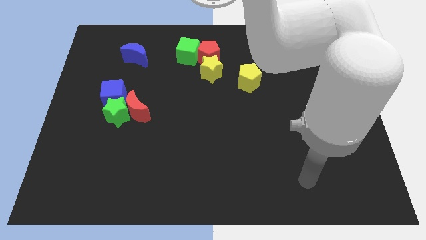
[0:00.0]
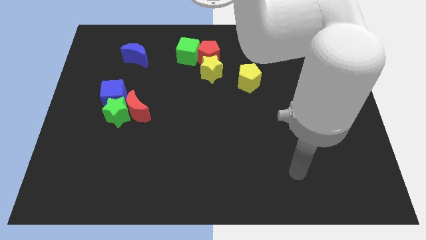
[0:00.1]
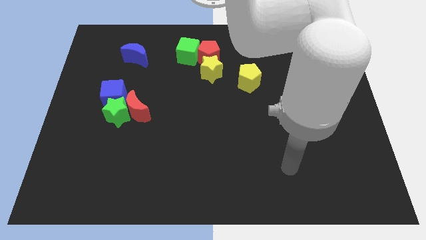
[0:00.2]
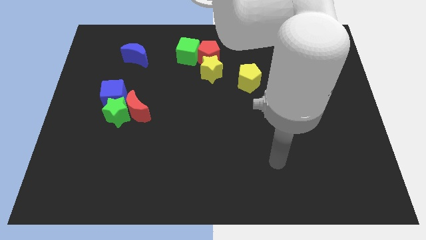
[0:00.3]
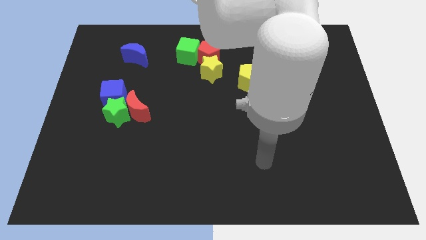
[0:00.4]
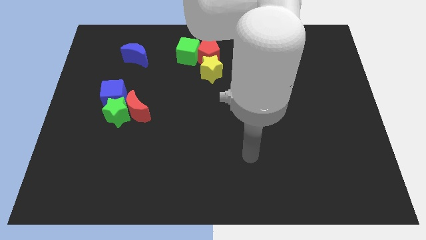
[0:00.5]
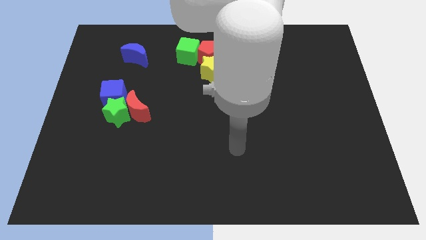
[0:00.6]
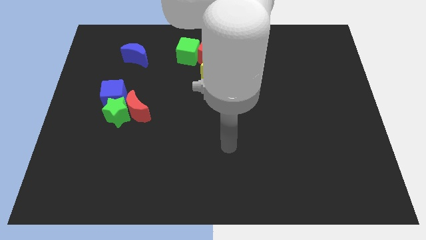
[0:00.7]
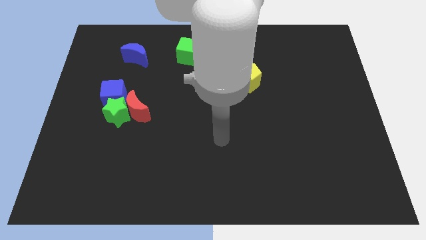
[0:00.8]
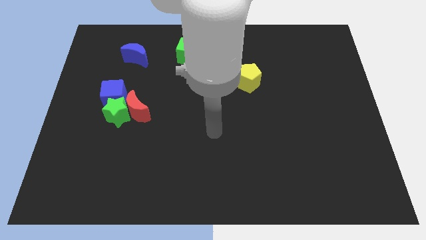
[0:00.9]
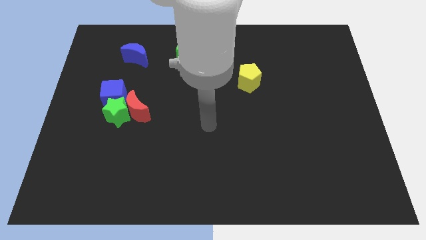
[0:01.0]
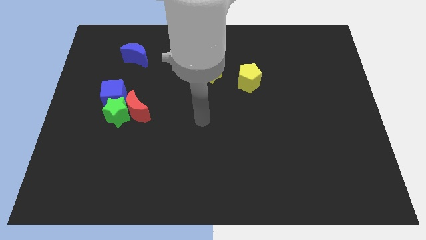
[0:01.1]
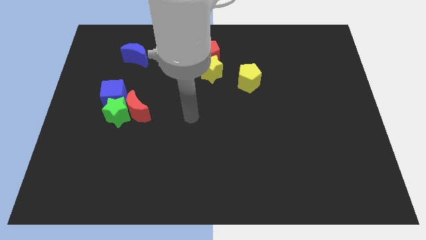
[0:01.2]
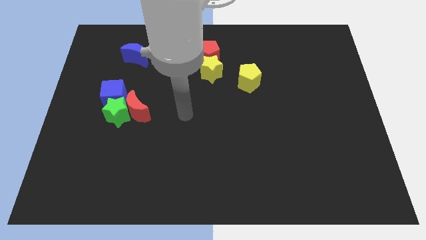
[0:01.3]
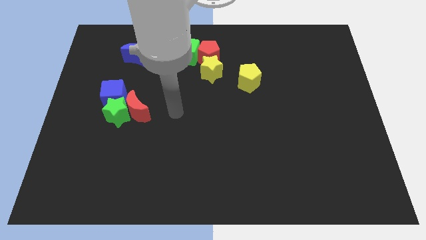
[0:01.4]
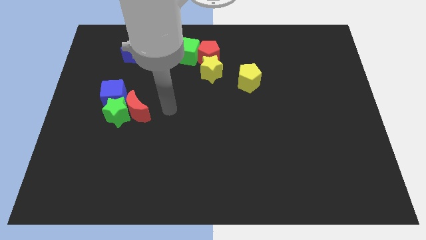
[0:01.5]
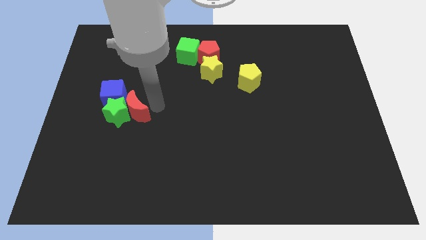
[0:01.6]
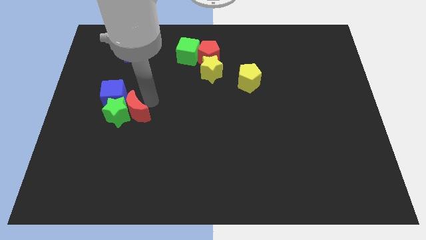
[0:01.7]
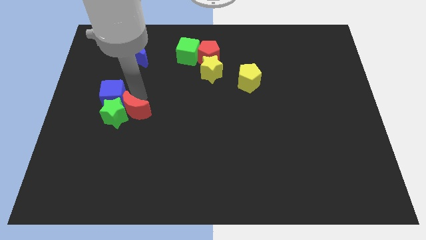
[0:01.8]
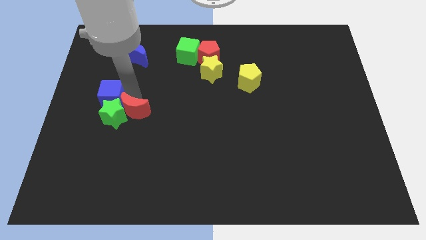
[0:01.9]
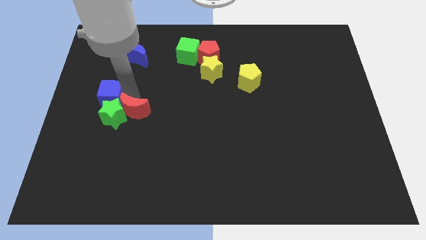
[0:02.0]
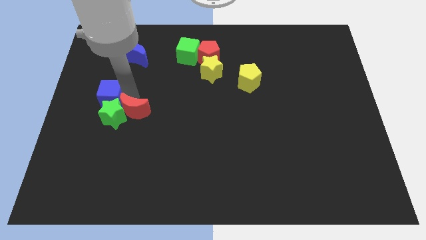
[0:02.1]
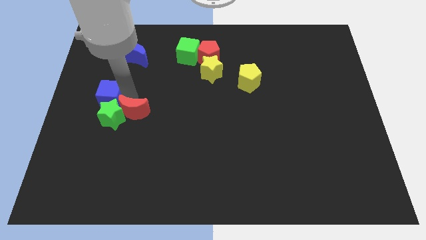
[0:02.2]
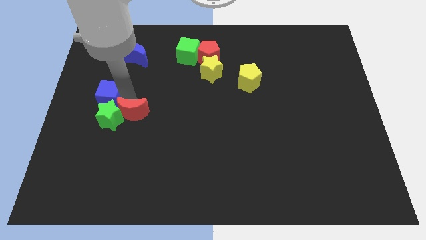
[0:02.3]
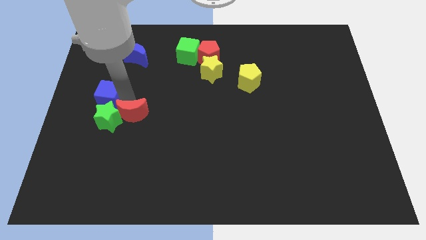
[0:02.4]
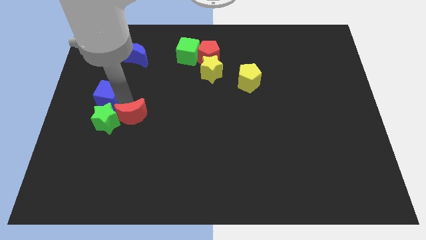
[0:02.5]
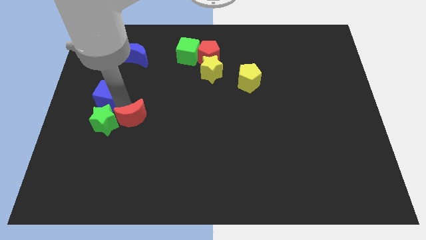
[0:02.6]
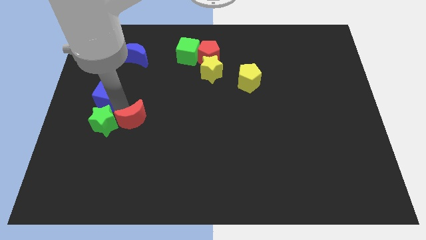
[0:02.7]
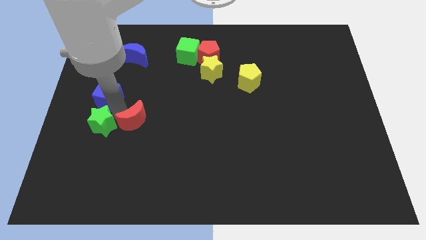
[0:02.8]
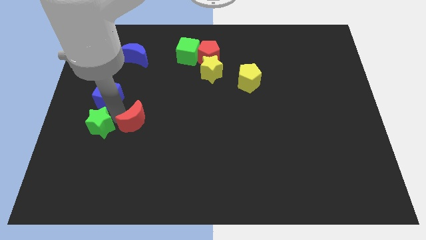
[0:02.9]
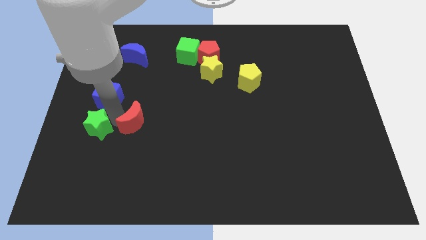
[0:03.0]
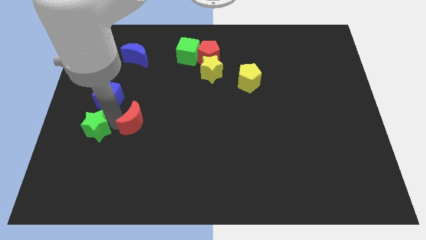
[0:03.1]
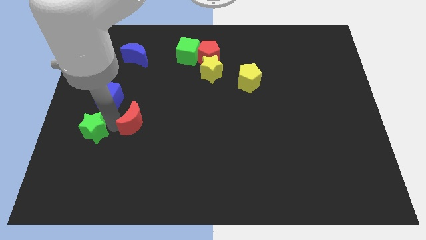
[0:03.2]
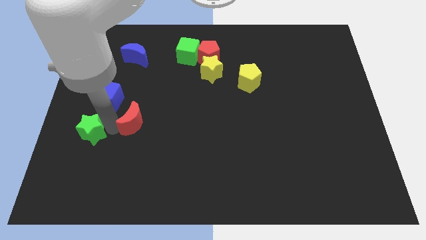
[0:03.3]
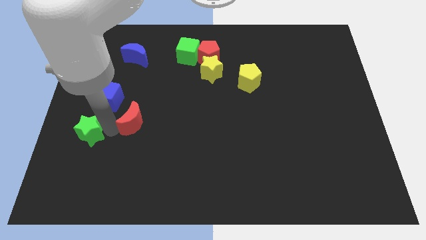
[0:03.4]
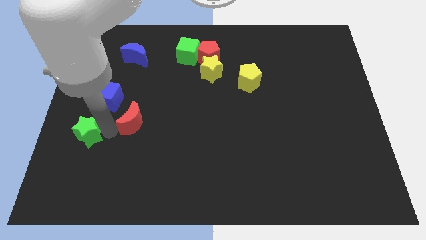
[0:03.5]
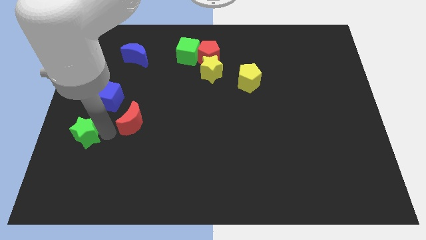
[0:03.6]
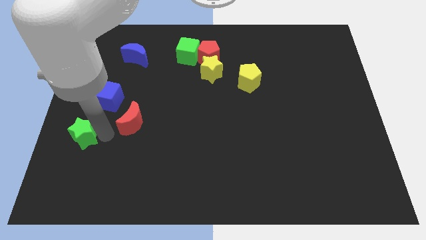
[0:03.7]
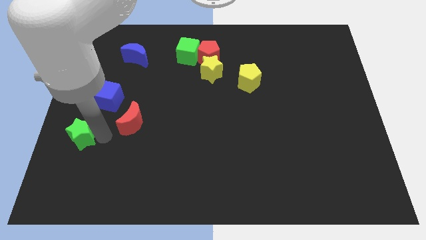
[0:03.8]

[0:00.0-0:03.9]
separate the green star from the red moon and blue cube

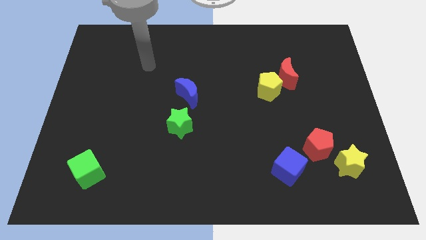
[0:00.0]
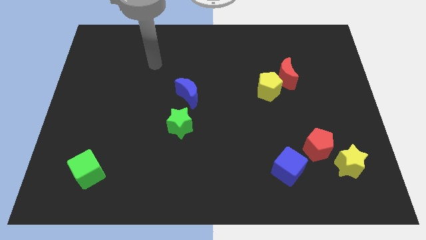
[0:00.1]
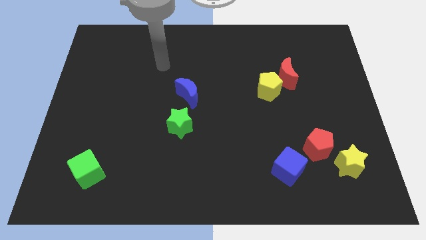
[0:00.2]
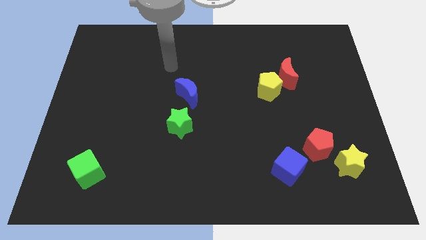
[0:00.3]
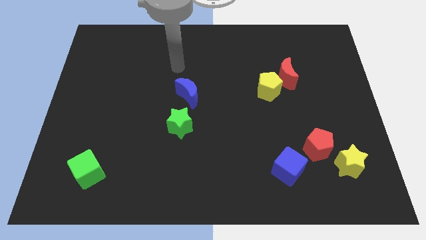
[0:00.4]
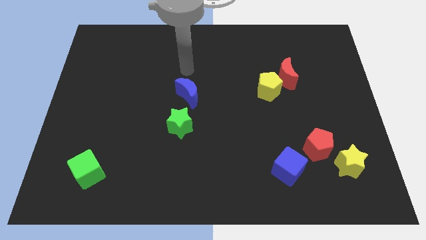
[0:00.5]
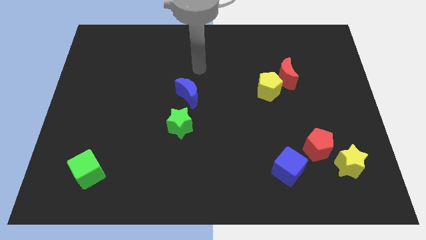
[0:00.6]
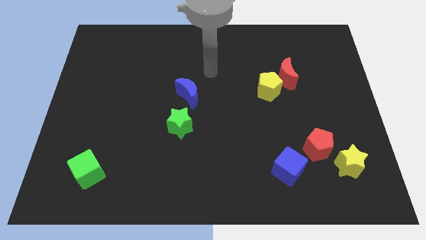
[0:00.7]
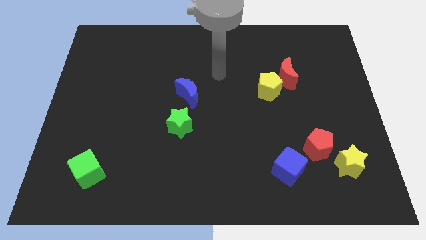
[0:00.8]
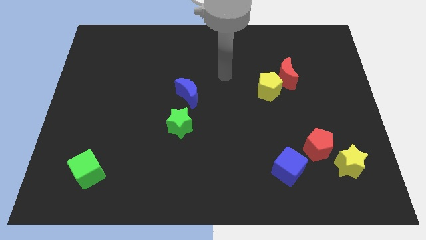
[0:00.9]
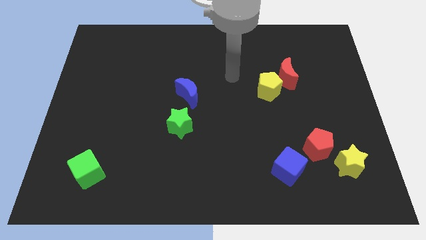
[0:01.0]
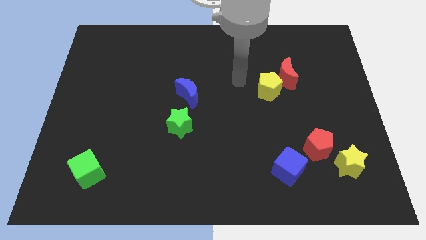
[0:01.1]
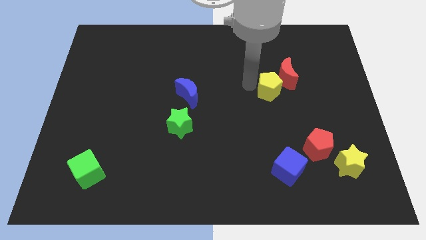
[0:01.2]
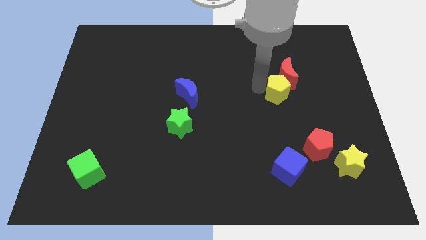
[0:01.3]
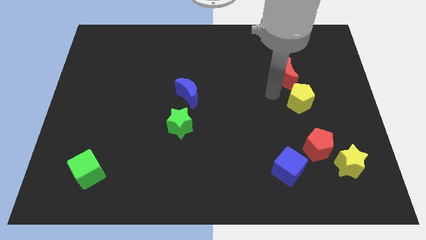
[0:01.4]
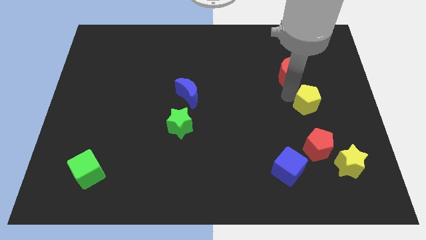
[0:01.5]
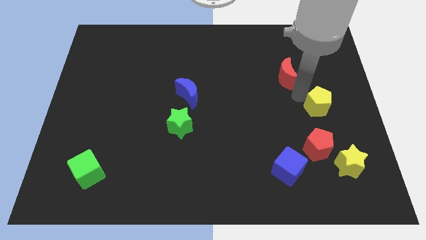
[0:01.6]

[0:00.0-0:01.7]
move the red moon away from the yellow pentagon

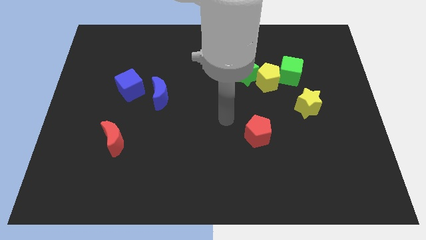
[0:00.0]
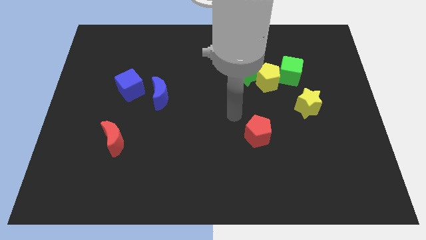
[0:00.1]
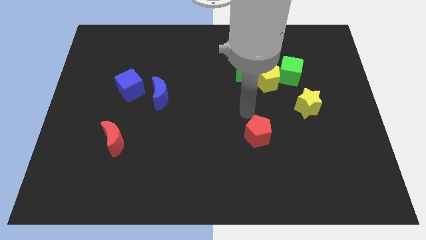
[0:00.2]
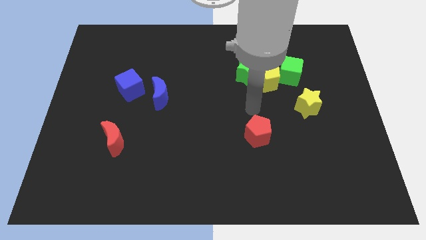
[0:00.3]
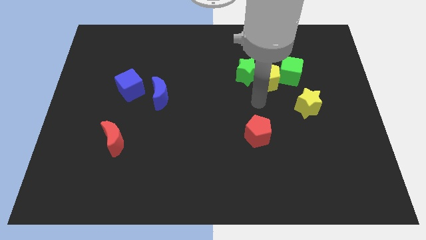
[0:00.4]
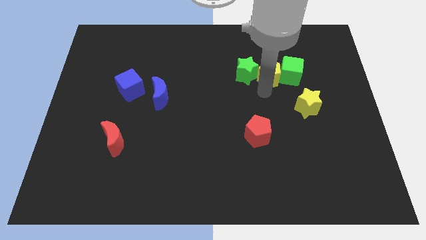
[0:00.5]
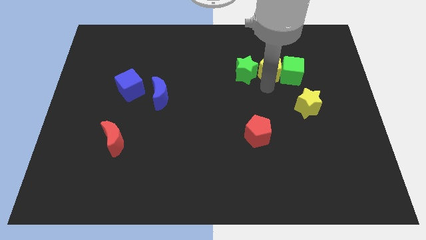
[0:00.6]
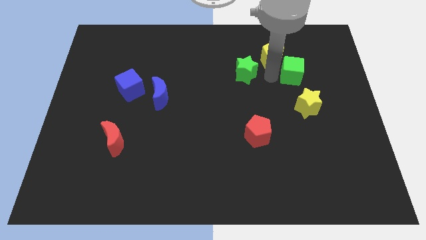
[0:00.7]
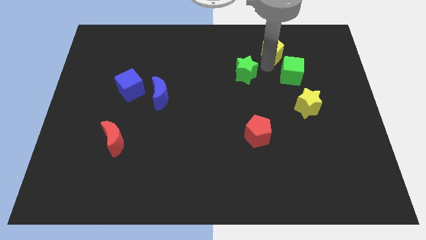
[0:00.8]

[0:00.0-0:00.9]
separate the green star from the yellow pentagon

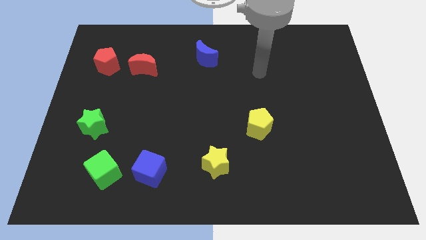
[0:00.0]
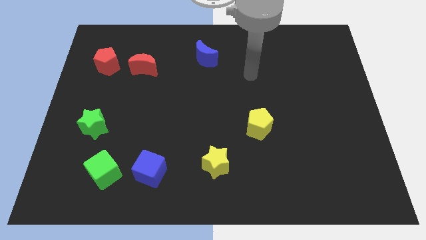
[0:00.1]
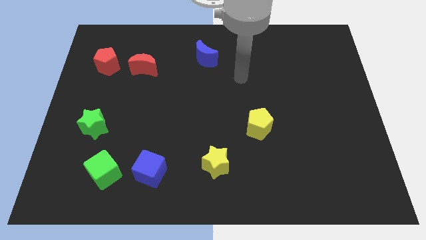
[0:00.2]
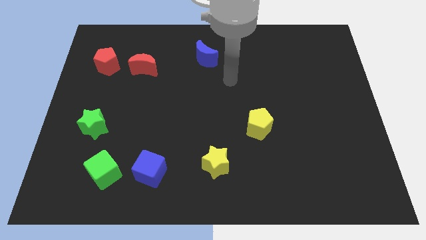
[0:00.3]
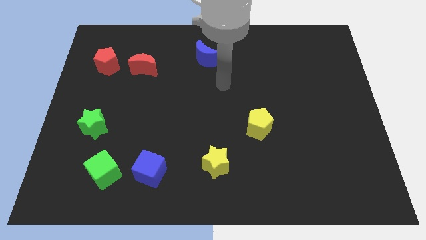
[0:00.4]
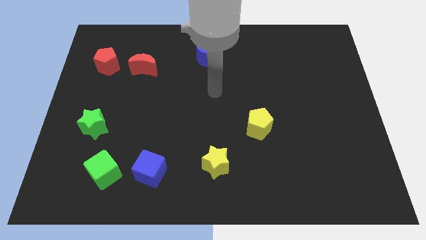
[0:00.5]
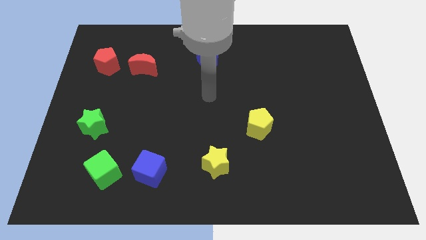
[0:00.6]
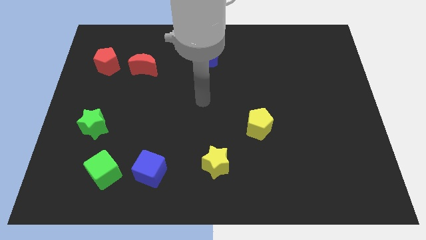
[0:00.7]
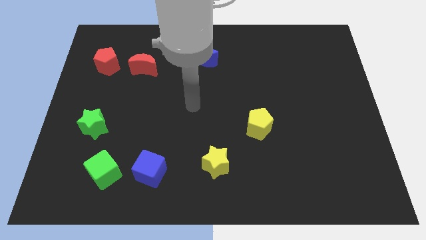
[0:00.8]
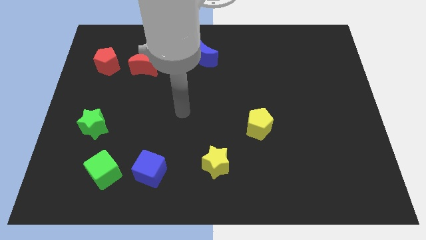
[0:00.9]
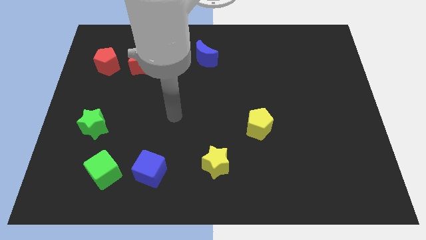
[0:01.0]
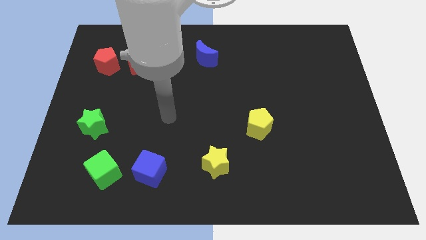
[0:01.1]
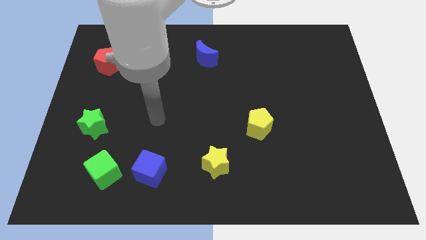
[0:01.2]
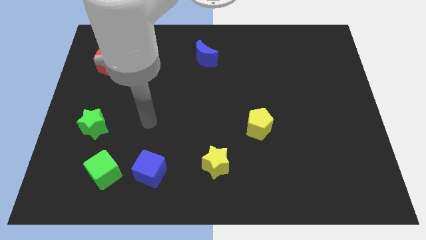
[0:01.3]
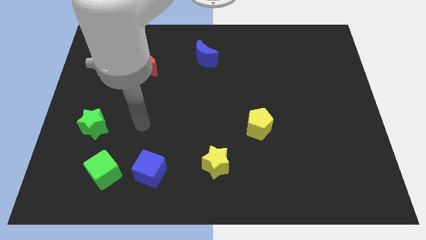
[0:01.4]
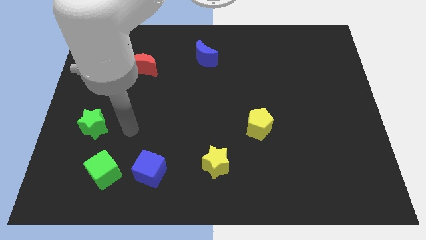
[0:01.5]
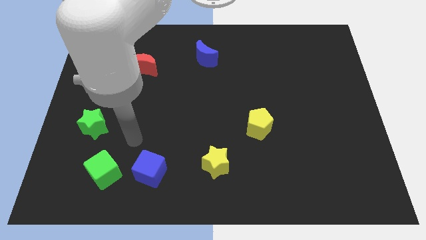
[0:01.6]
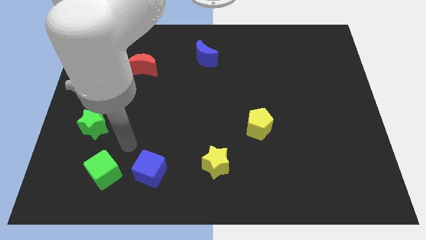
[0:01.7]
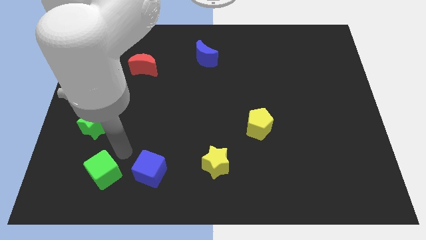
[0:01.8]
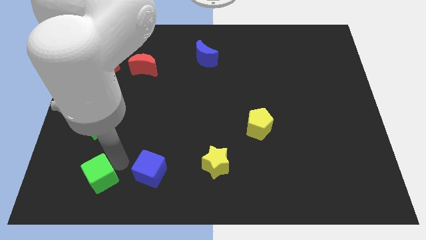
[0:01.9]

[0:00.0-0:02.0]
move the blue cube away from the green cube

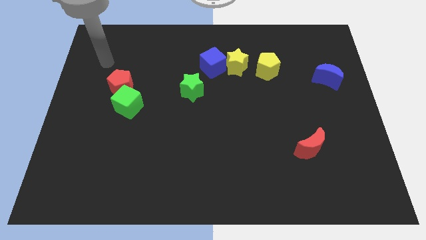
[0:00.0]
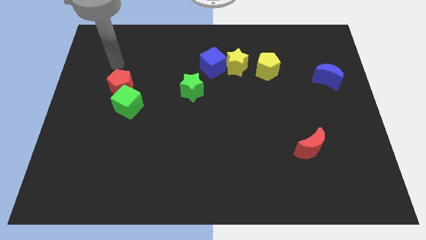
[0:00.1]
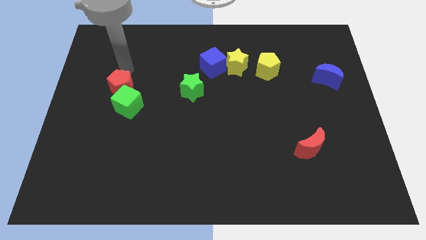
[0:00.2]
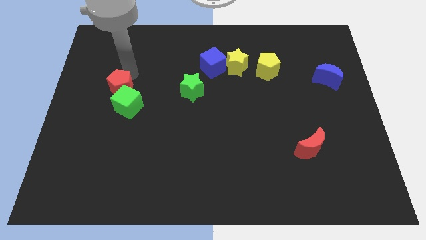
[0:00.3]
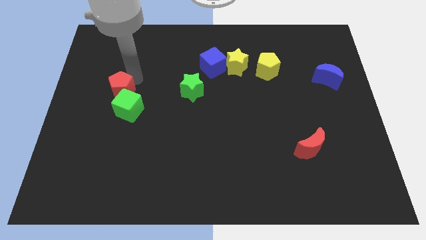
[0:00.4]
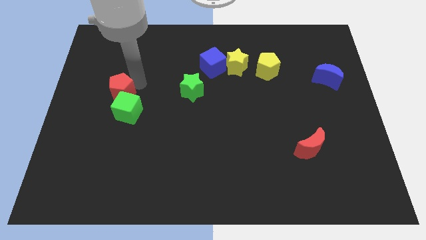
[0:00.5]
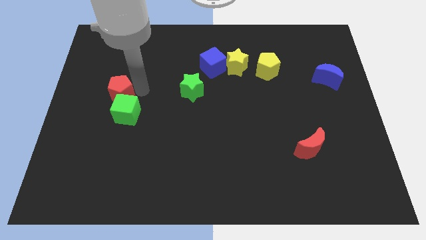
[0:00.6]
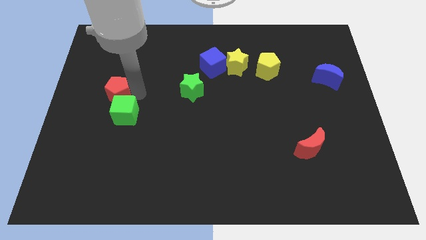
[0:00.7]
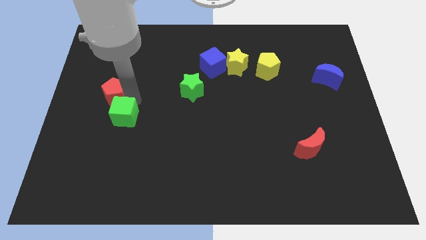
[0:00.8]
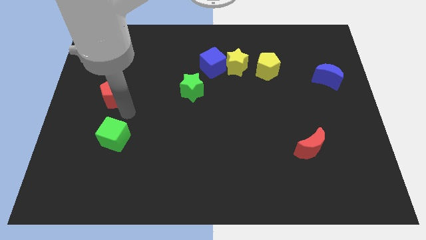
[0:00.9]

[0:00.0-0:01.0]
separate the red pentagon from the green cube
